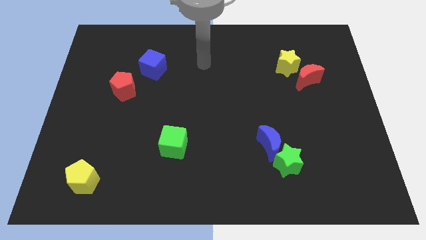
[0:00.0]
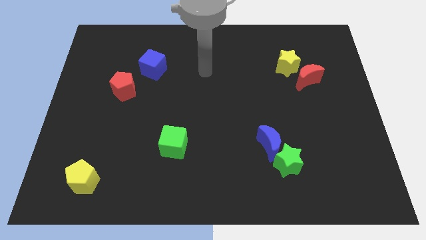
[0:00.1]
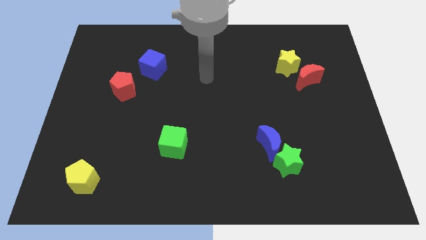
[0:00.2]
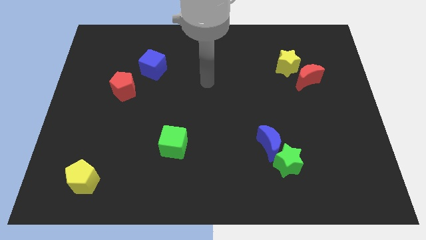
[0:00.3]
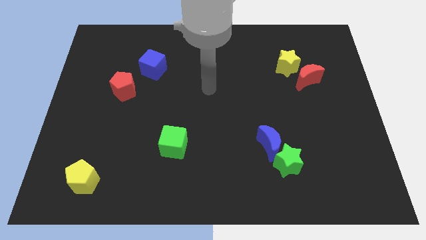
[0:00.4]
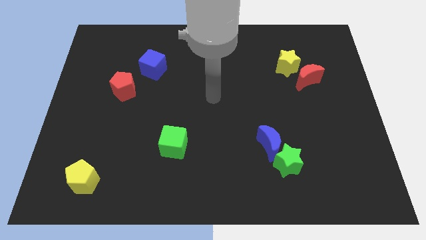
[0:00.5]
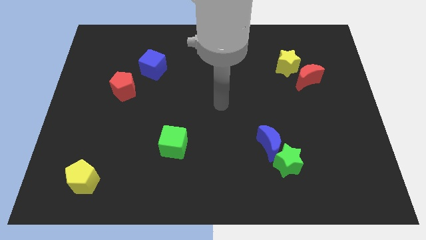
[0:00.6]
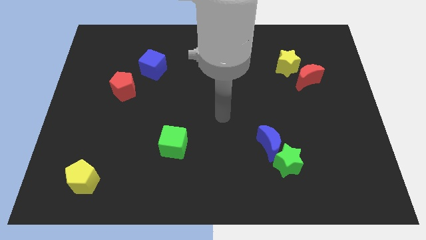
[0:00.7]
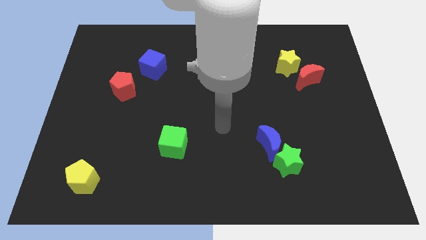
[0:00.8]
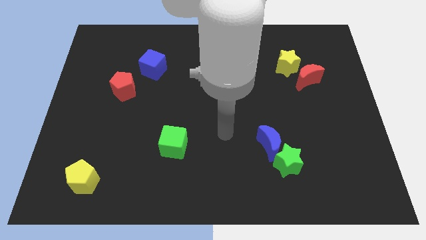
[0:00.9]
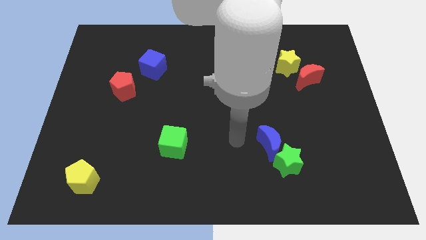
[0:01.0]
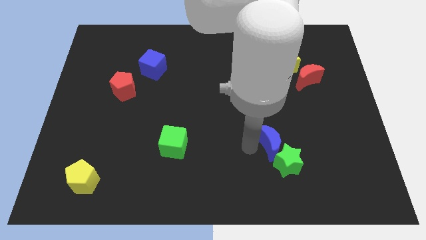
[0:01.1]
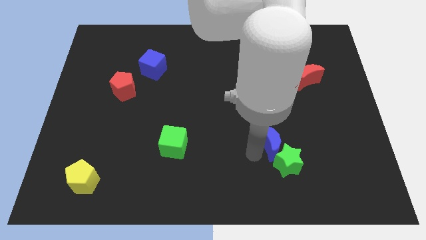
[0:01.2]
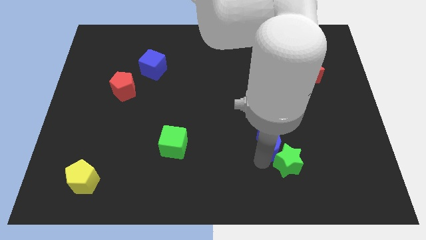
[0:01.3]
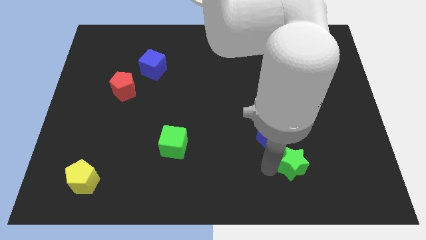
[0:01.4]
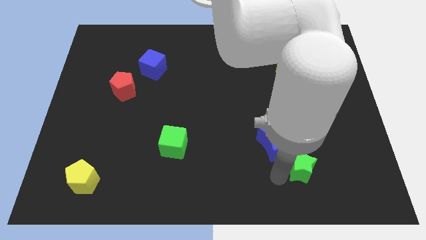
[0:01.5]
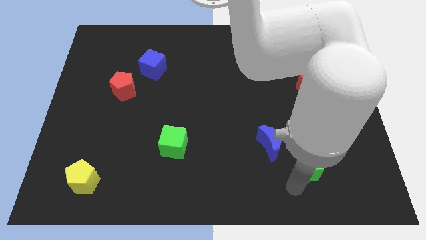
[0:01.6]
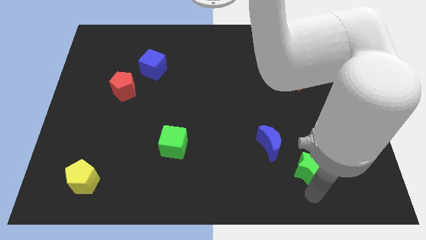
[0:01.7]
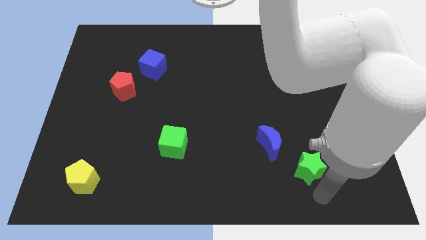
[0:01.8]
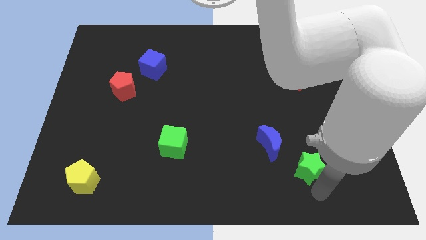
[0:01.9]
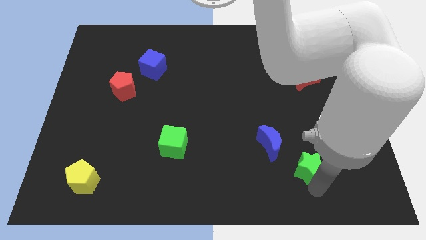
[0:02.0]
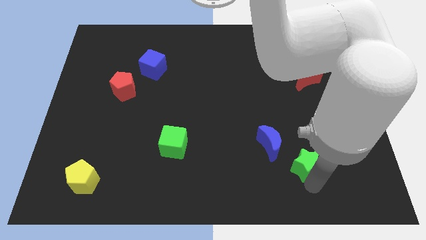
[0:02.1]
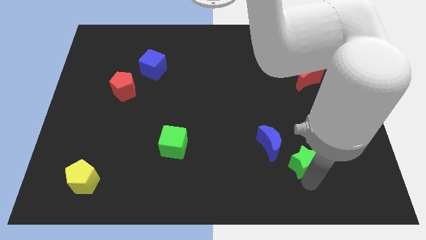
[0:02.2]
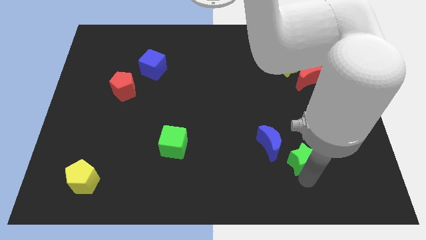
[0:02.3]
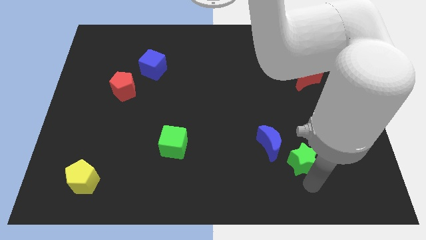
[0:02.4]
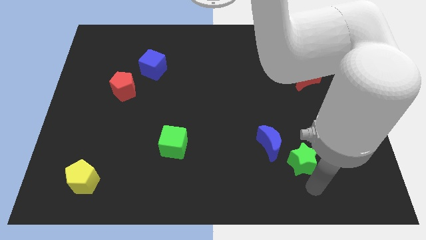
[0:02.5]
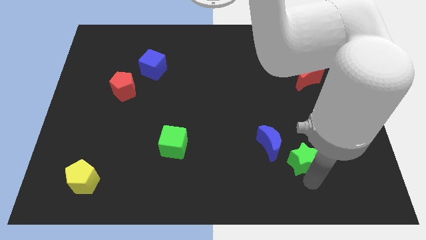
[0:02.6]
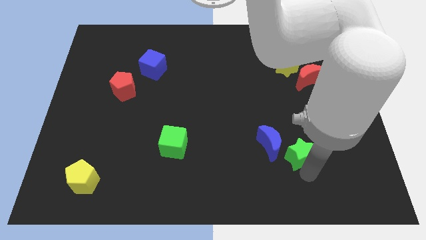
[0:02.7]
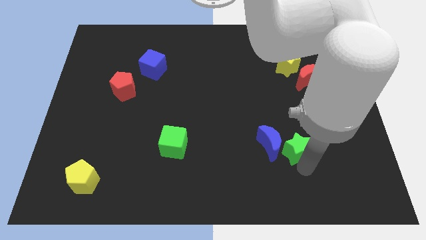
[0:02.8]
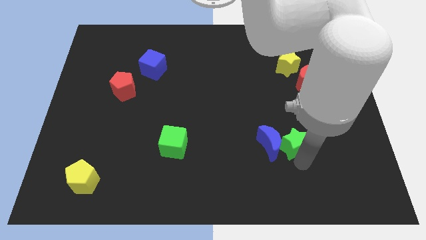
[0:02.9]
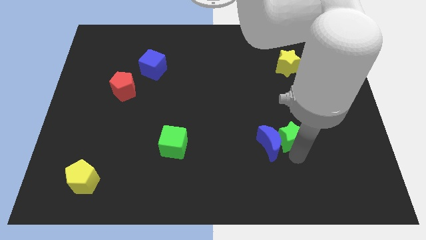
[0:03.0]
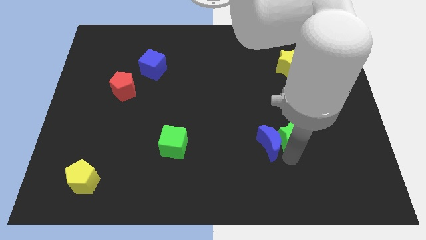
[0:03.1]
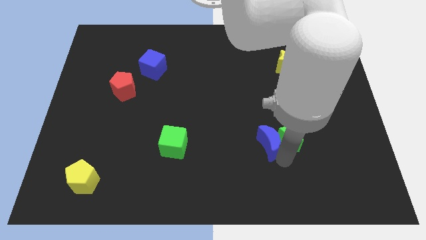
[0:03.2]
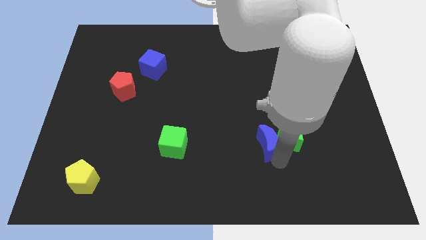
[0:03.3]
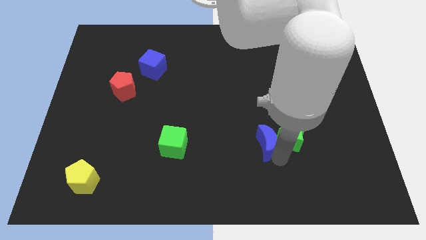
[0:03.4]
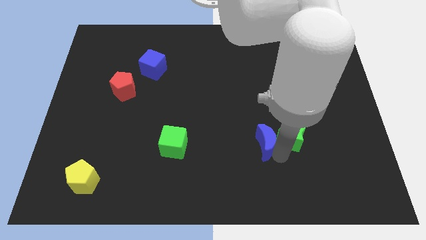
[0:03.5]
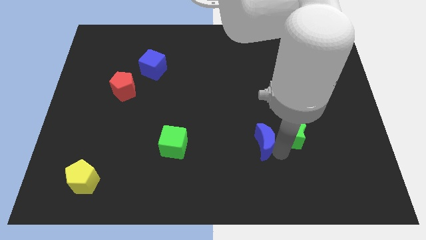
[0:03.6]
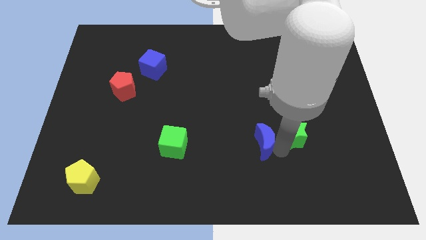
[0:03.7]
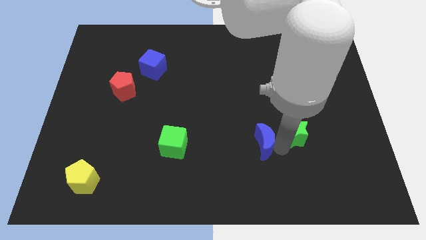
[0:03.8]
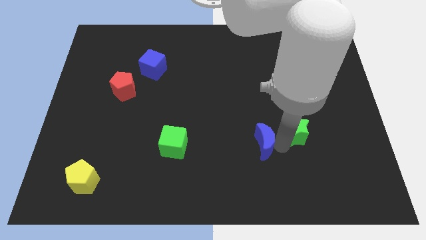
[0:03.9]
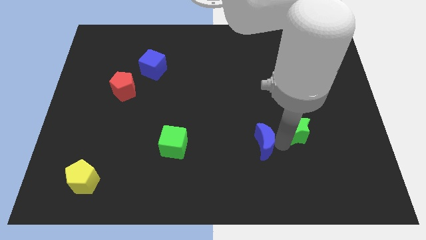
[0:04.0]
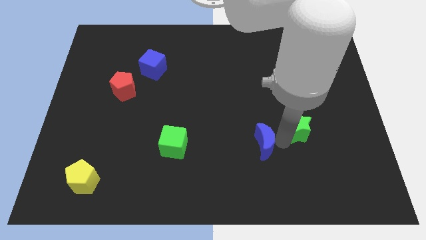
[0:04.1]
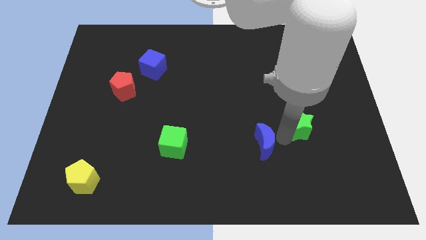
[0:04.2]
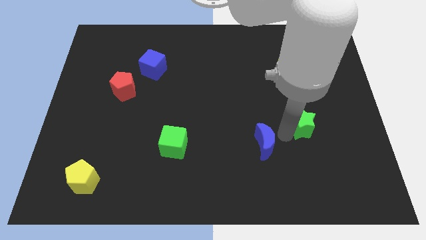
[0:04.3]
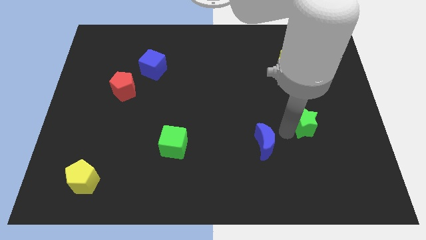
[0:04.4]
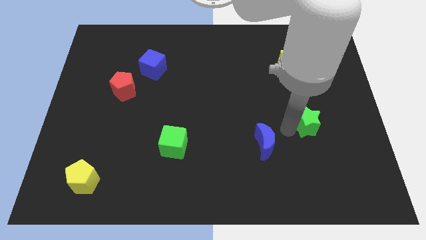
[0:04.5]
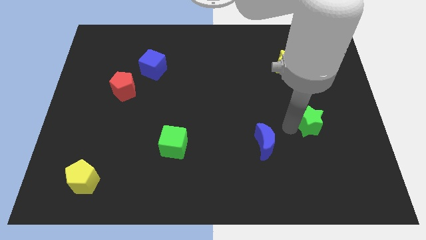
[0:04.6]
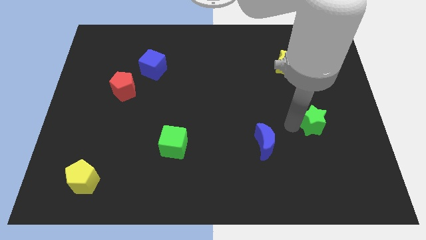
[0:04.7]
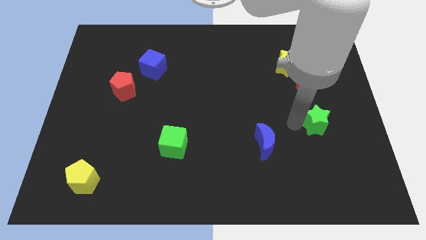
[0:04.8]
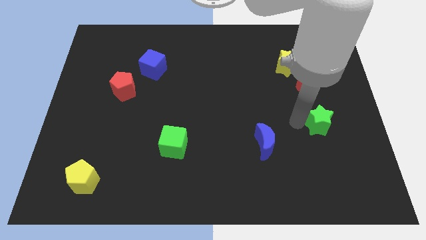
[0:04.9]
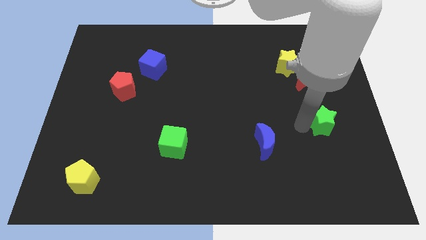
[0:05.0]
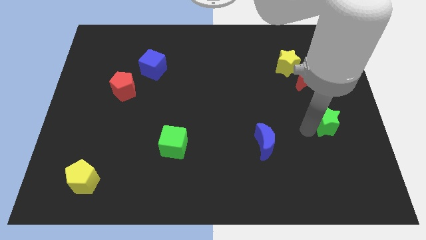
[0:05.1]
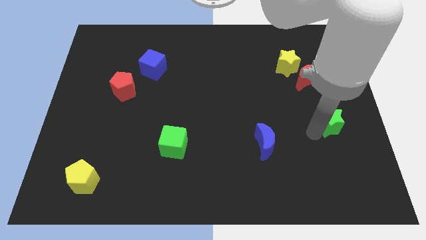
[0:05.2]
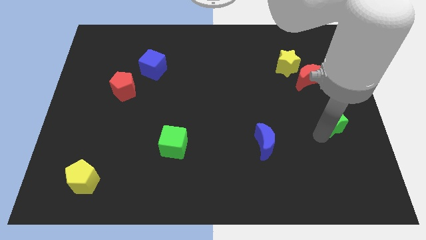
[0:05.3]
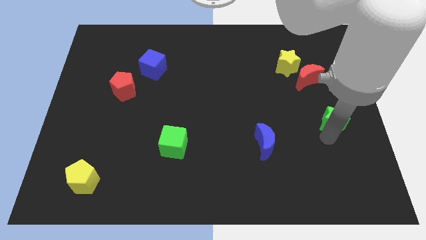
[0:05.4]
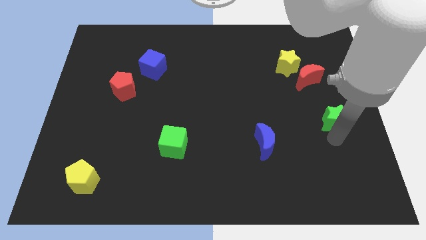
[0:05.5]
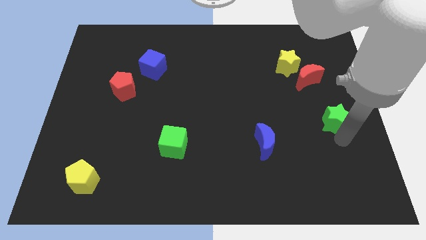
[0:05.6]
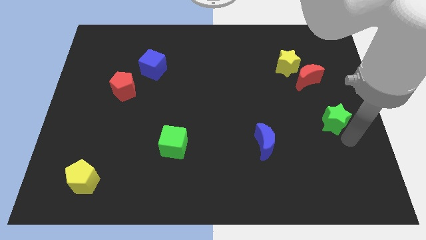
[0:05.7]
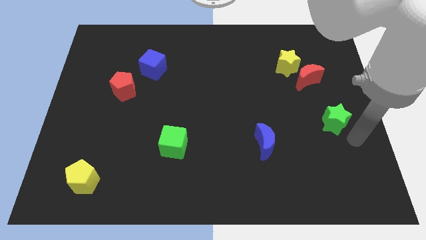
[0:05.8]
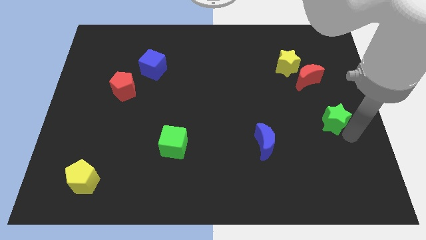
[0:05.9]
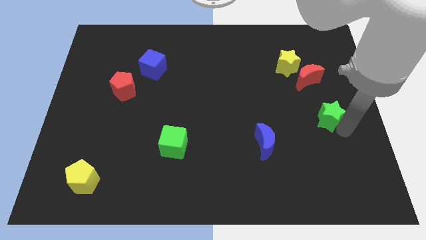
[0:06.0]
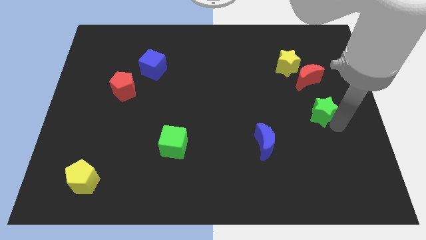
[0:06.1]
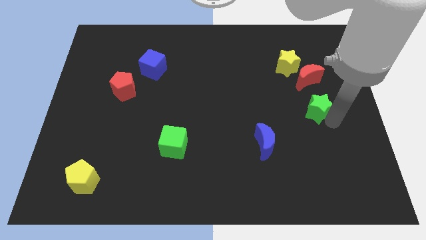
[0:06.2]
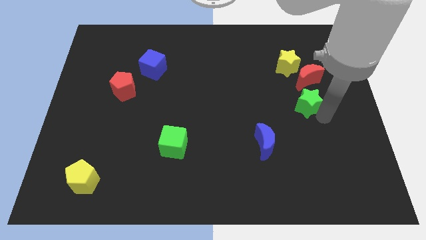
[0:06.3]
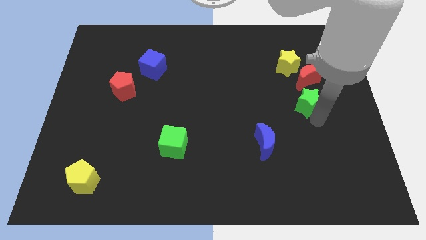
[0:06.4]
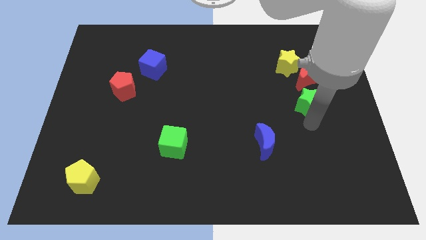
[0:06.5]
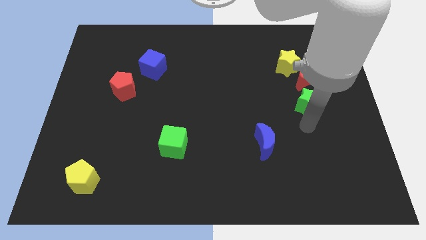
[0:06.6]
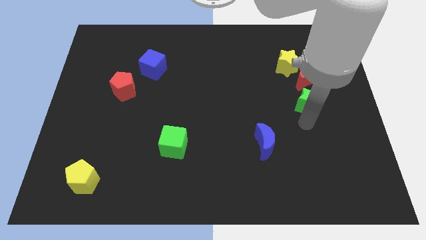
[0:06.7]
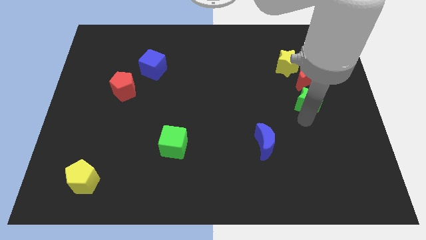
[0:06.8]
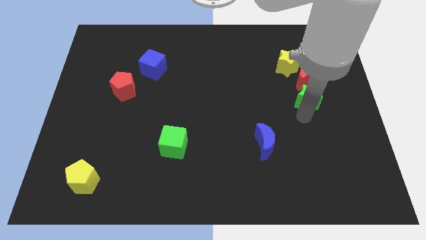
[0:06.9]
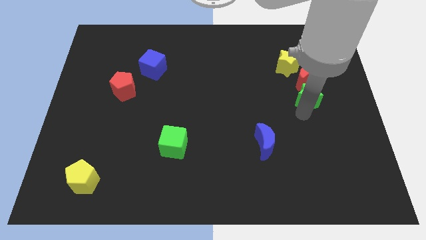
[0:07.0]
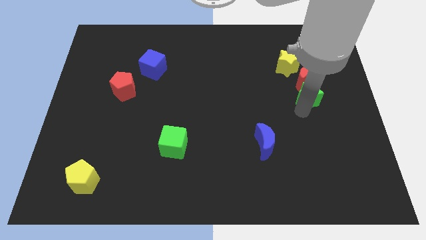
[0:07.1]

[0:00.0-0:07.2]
put the green star towards the red moon

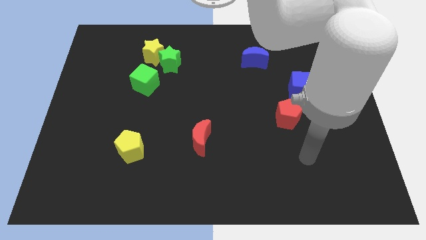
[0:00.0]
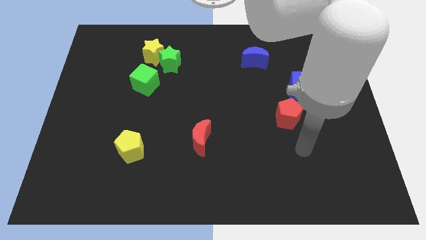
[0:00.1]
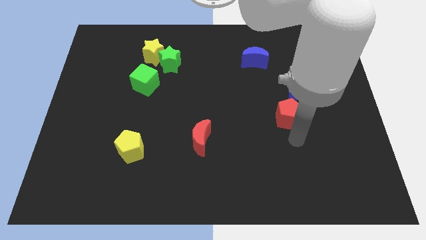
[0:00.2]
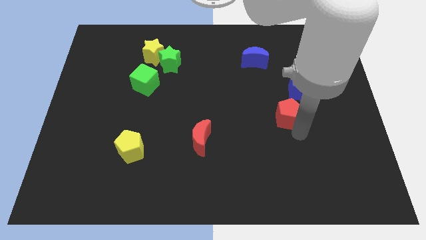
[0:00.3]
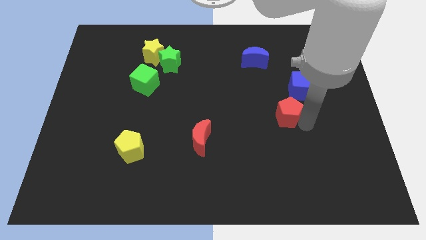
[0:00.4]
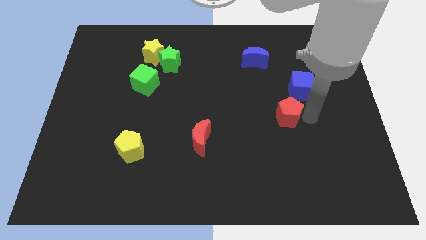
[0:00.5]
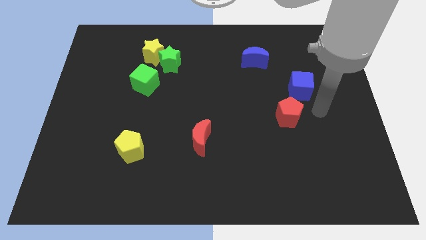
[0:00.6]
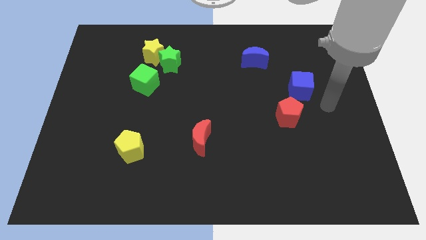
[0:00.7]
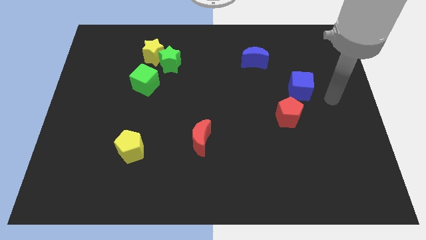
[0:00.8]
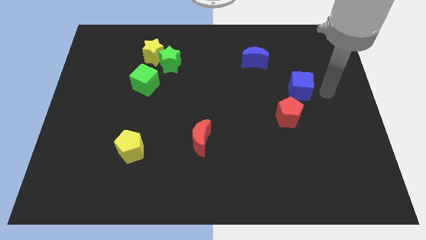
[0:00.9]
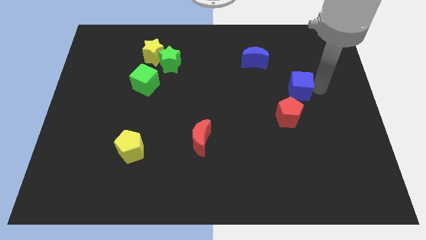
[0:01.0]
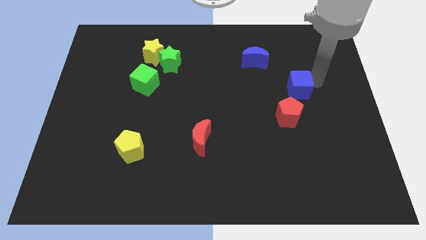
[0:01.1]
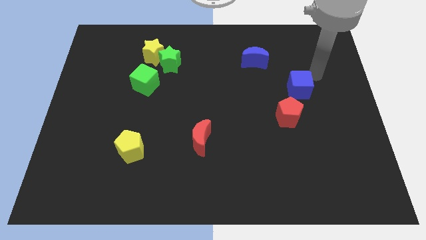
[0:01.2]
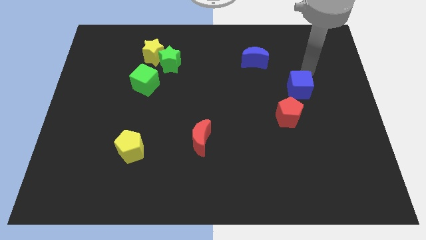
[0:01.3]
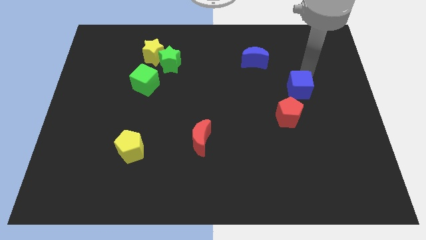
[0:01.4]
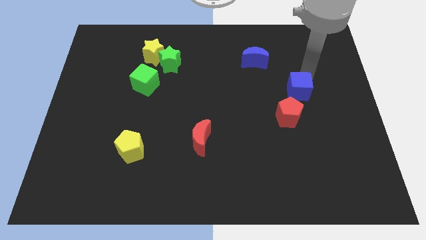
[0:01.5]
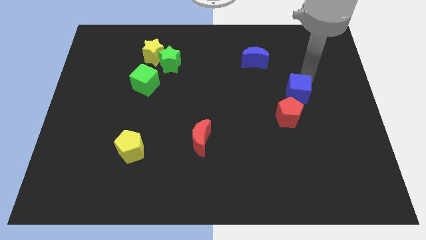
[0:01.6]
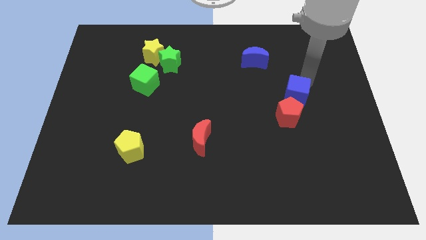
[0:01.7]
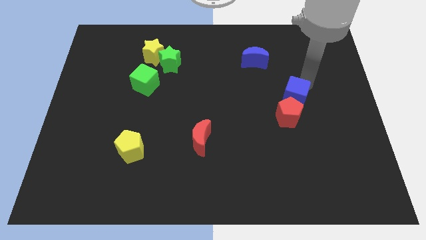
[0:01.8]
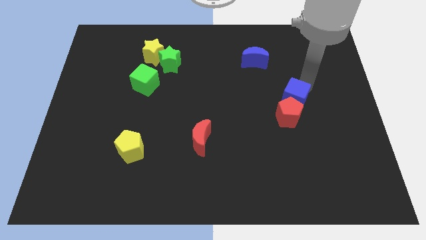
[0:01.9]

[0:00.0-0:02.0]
move the blue cube next to the red pentagon
